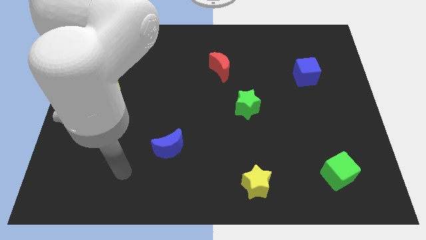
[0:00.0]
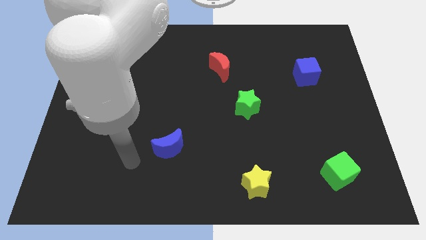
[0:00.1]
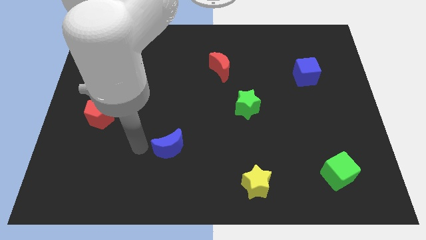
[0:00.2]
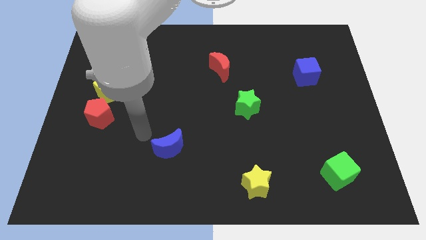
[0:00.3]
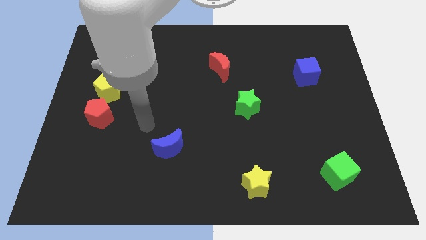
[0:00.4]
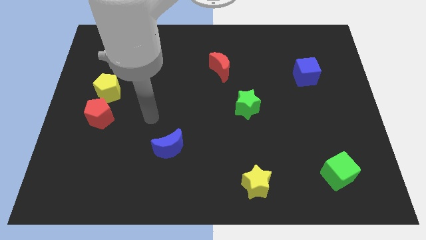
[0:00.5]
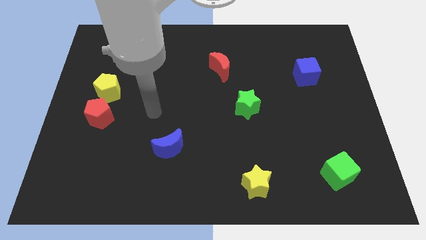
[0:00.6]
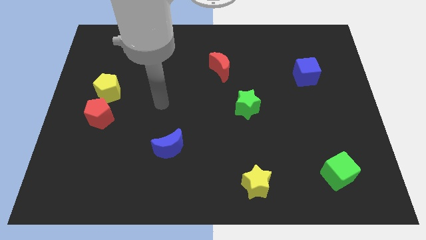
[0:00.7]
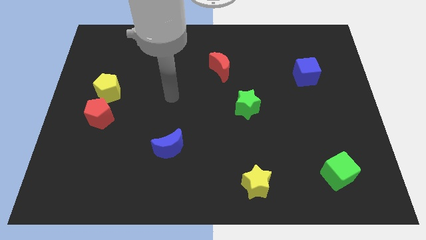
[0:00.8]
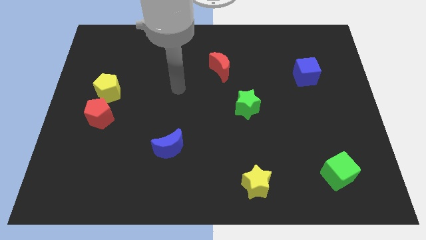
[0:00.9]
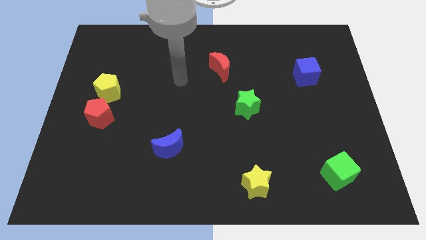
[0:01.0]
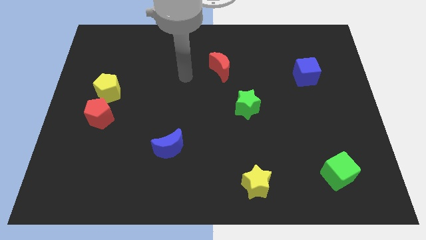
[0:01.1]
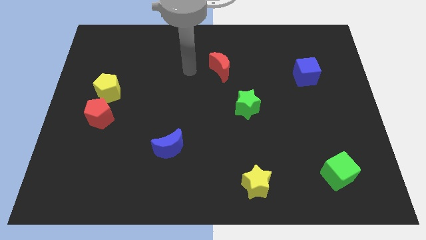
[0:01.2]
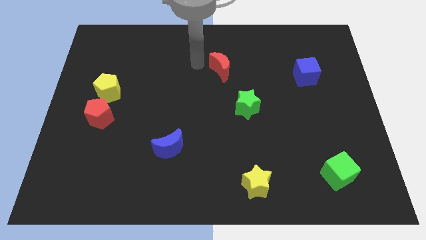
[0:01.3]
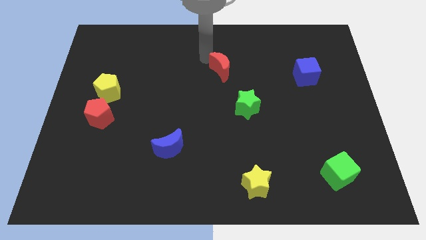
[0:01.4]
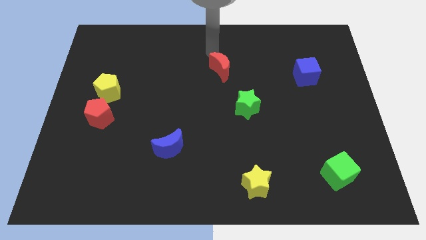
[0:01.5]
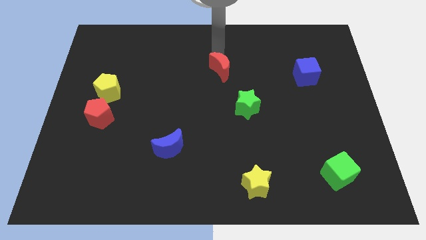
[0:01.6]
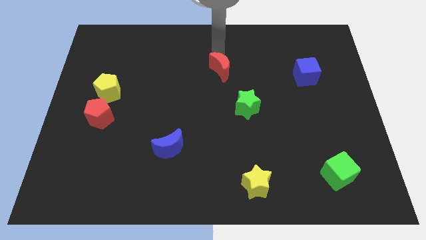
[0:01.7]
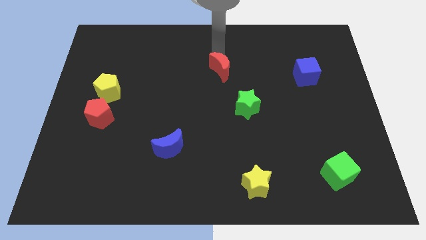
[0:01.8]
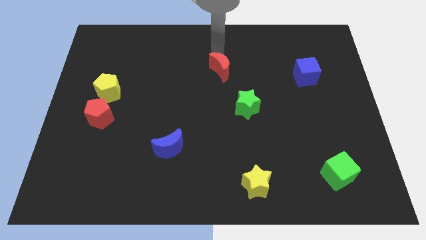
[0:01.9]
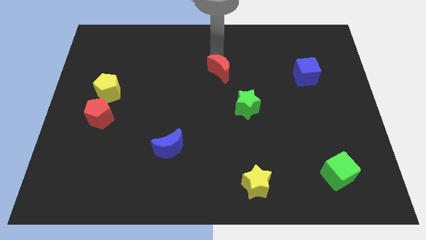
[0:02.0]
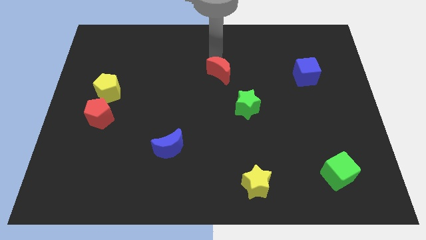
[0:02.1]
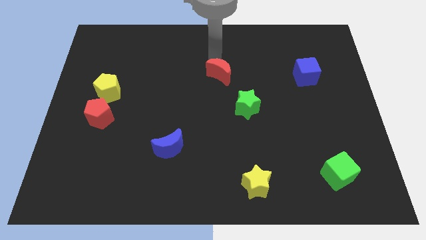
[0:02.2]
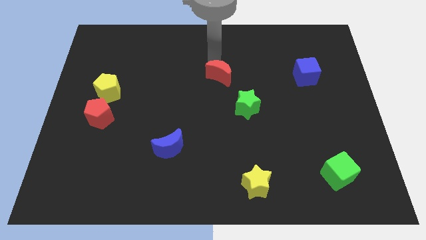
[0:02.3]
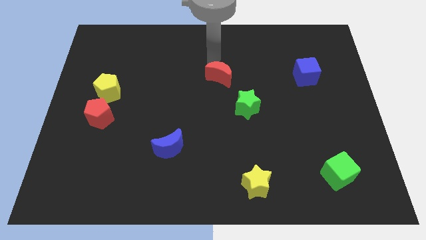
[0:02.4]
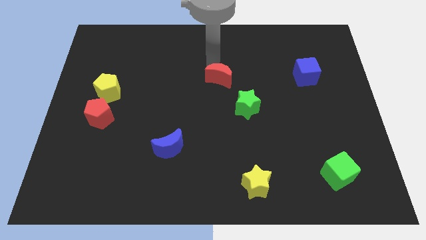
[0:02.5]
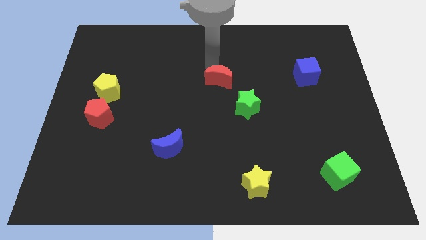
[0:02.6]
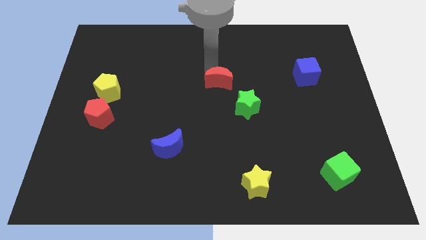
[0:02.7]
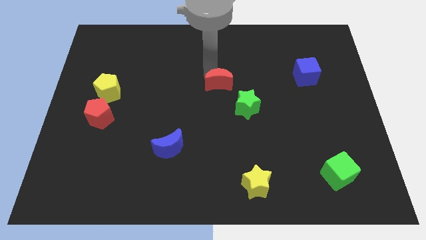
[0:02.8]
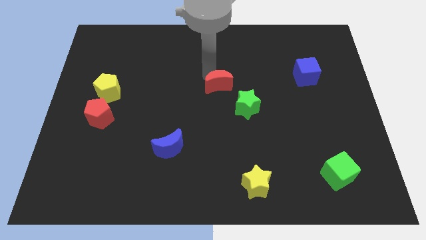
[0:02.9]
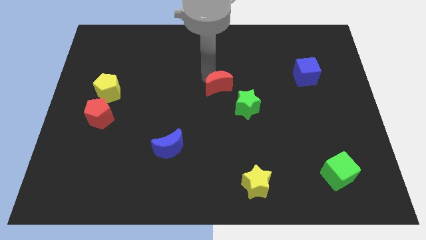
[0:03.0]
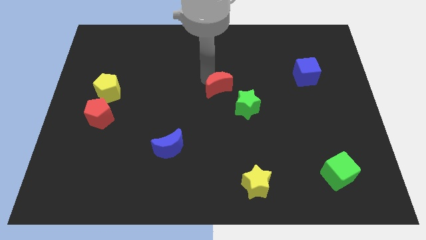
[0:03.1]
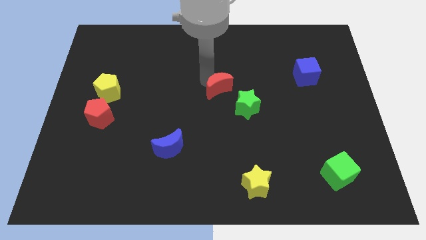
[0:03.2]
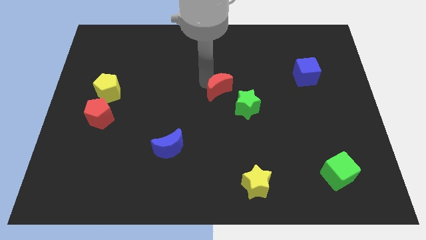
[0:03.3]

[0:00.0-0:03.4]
push the red moon downwards a little bit

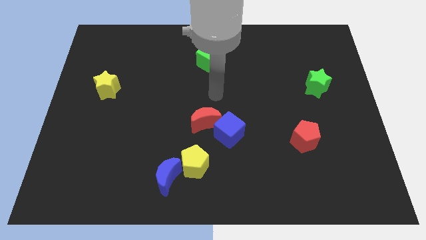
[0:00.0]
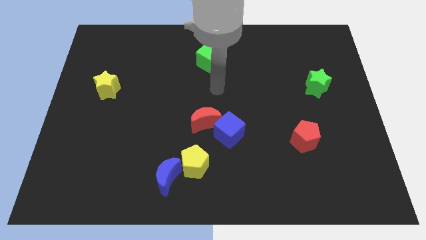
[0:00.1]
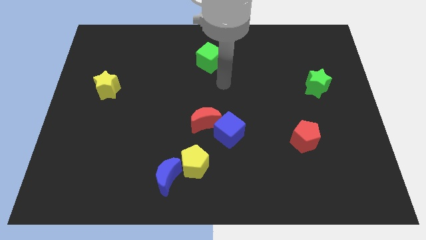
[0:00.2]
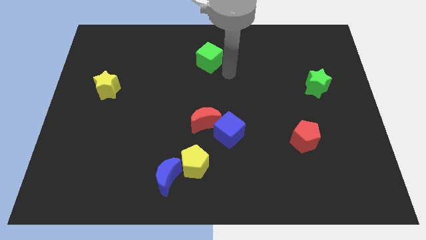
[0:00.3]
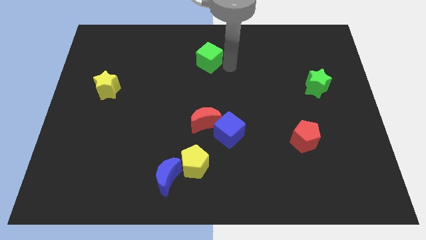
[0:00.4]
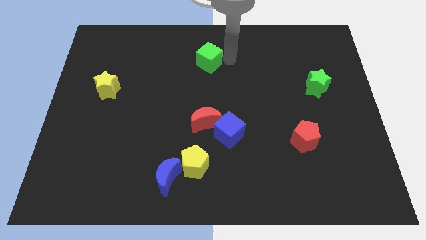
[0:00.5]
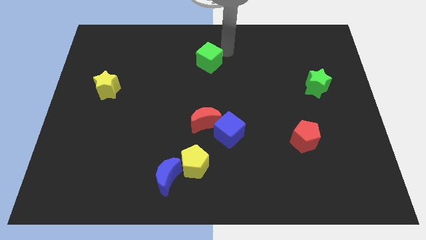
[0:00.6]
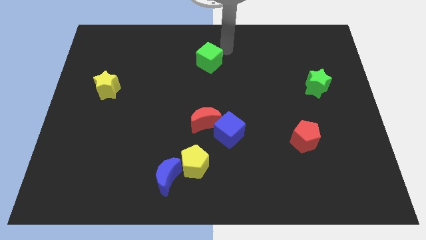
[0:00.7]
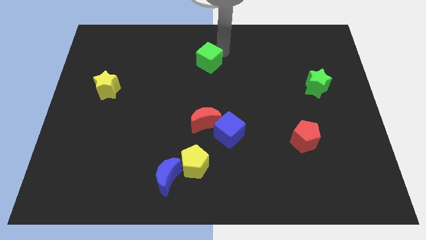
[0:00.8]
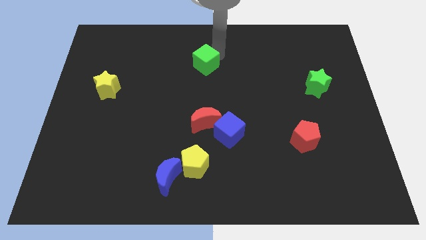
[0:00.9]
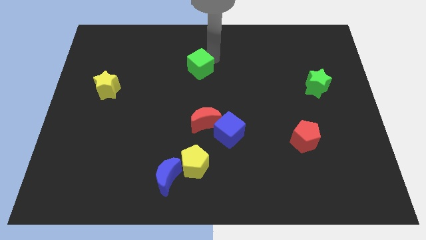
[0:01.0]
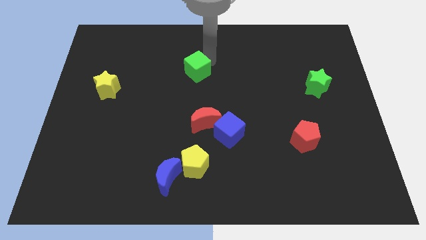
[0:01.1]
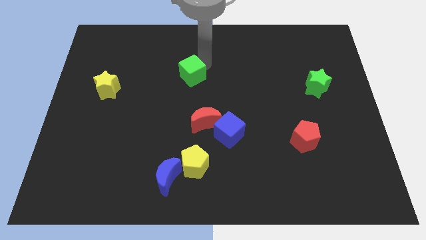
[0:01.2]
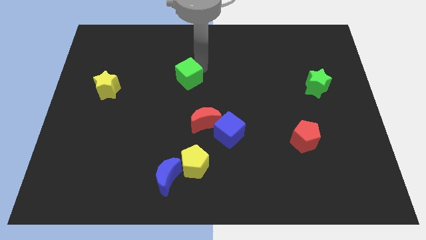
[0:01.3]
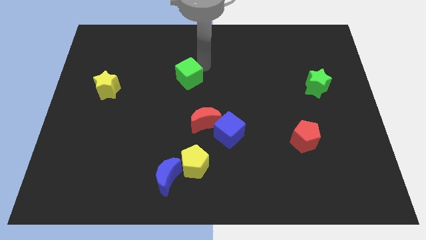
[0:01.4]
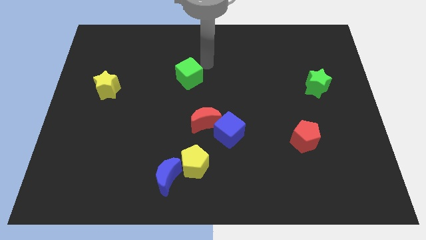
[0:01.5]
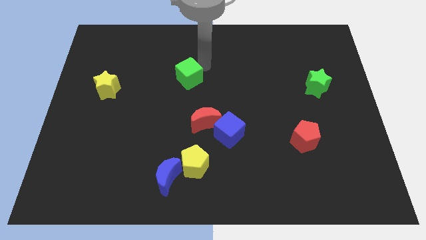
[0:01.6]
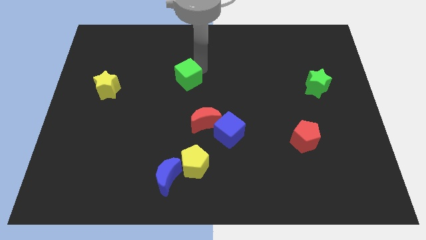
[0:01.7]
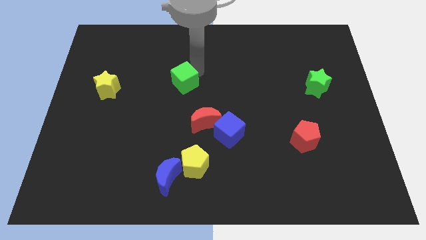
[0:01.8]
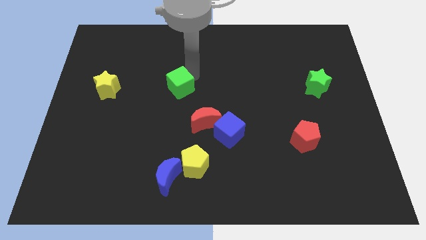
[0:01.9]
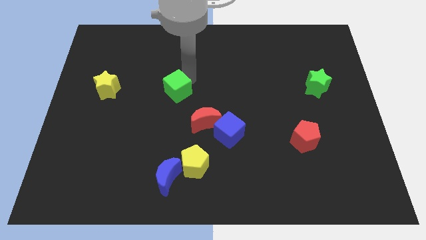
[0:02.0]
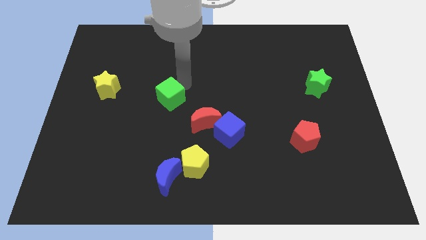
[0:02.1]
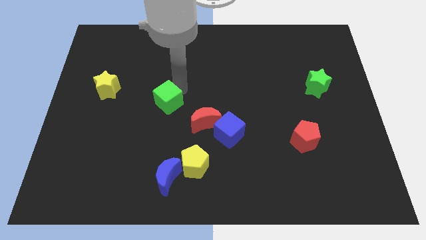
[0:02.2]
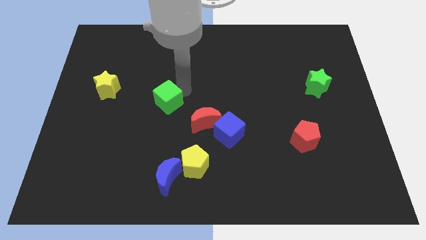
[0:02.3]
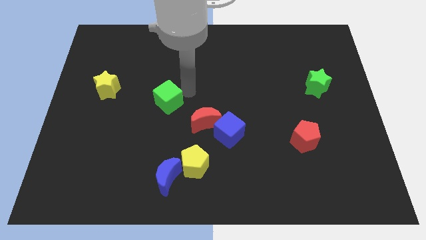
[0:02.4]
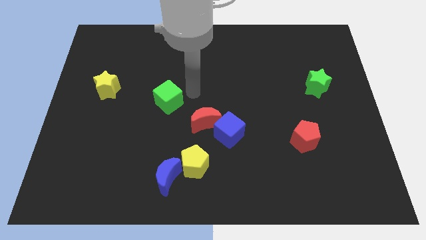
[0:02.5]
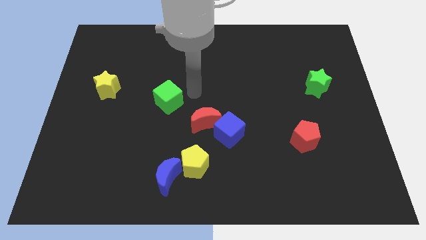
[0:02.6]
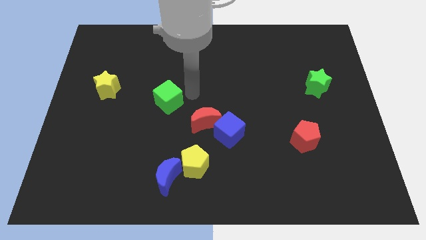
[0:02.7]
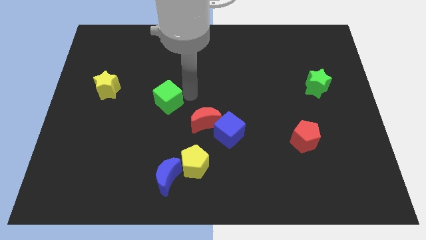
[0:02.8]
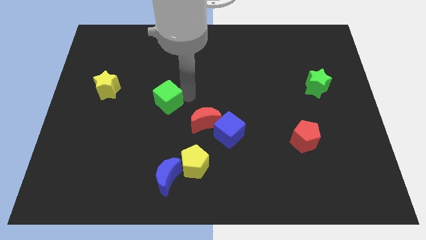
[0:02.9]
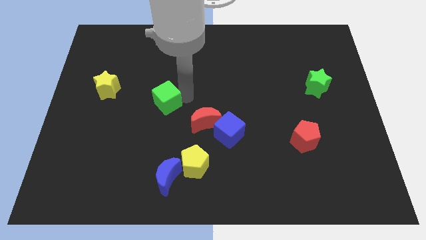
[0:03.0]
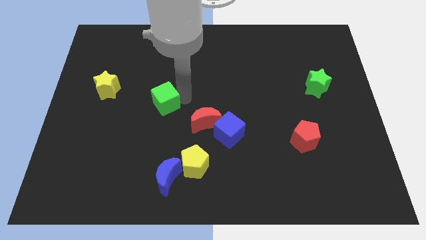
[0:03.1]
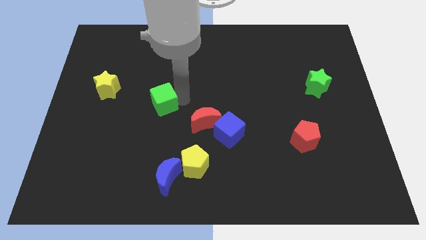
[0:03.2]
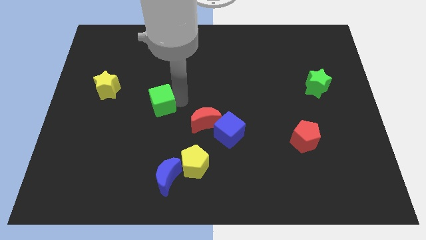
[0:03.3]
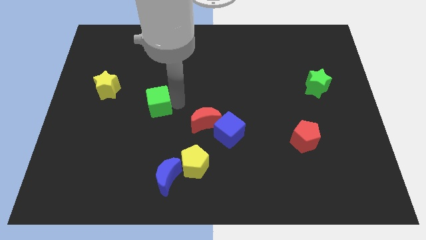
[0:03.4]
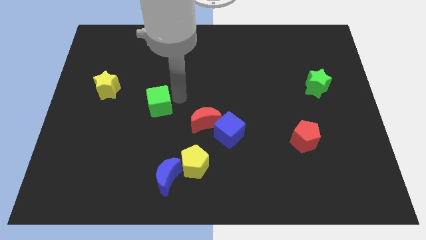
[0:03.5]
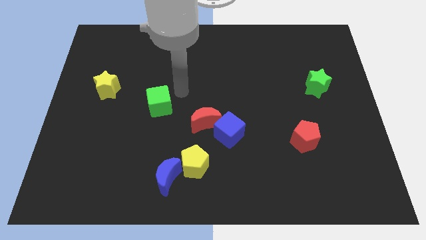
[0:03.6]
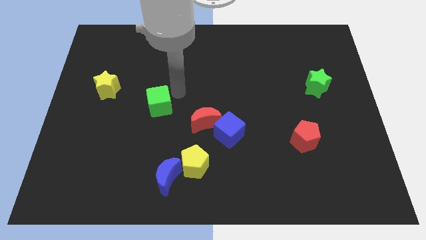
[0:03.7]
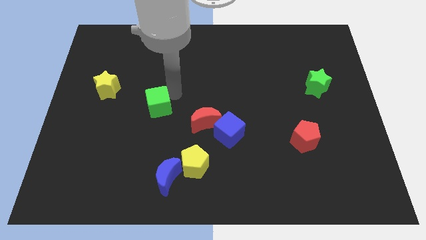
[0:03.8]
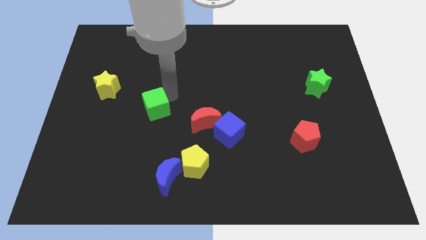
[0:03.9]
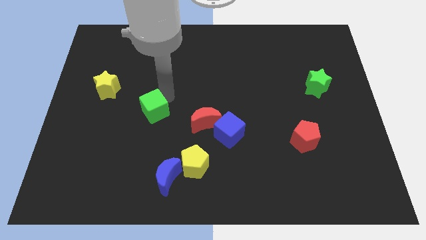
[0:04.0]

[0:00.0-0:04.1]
move the green cube downwards and to the left

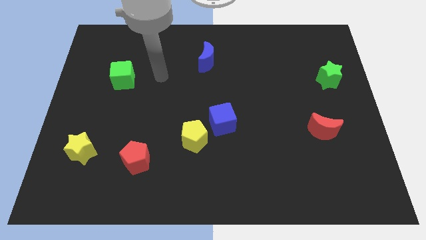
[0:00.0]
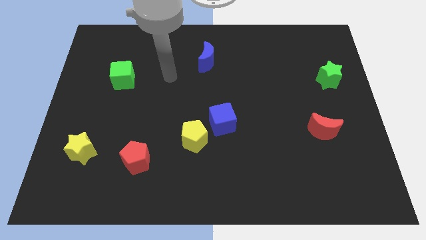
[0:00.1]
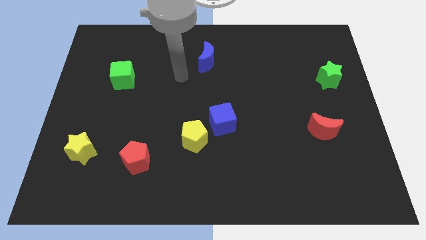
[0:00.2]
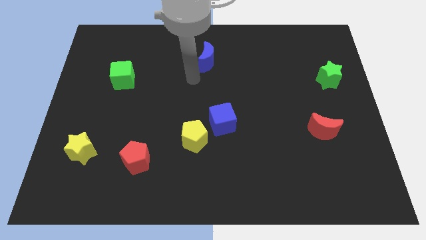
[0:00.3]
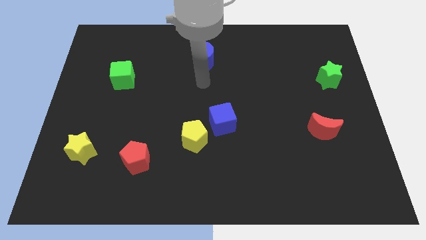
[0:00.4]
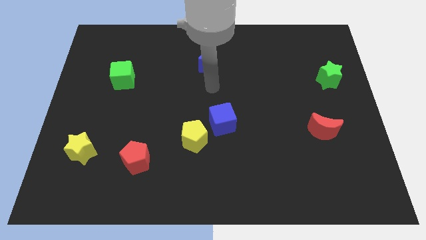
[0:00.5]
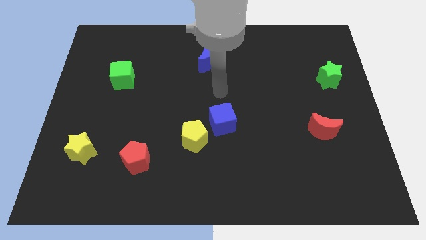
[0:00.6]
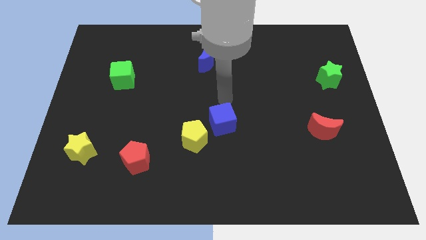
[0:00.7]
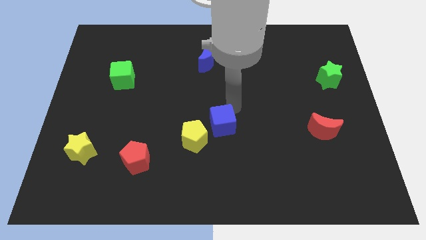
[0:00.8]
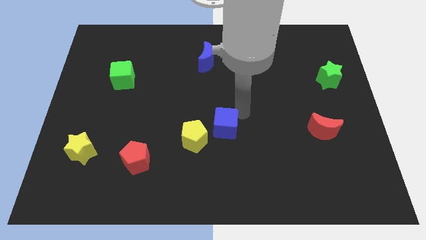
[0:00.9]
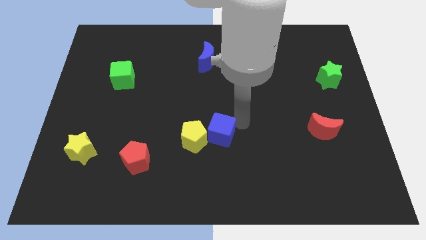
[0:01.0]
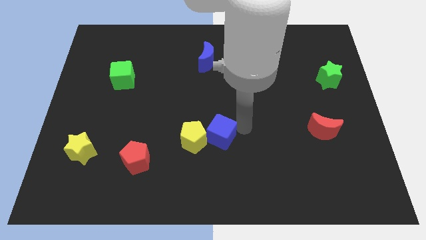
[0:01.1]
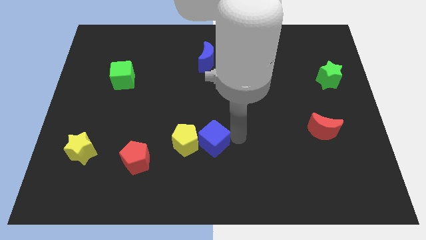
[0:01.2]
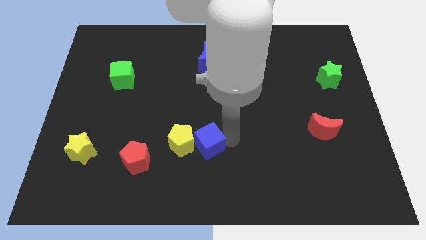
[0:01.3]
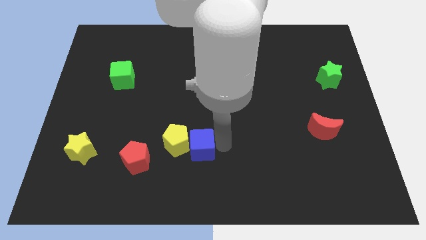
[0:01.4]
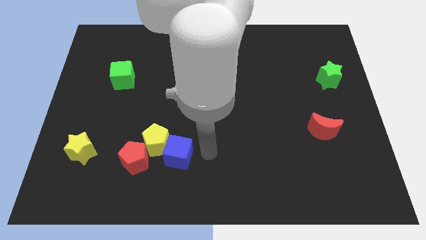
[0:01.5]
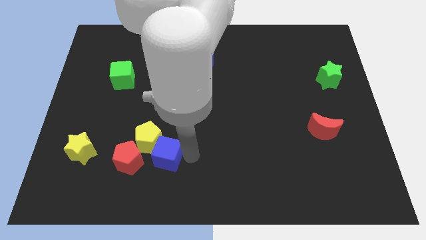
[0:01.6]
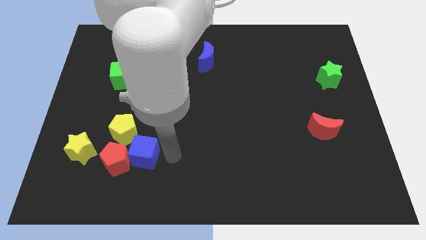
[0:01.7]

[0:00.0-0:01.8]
move the yellow pentagon a little diagonally upwards and left
